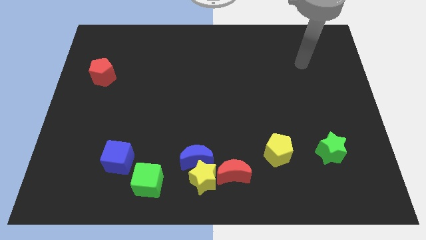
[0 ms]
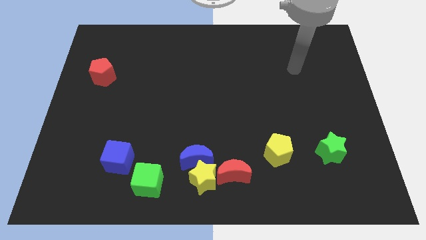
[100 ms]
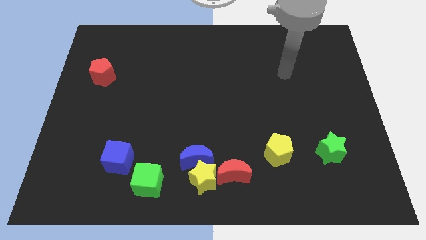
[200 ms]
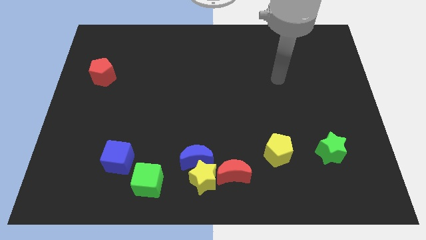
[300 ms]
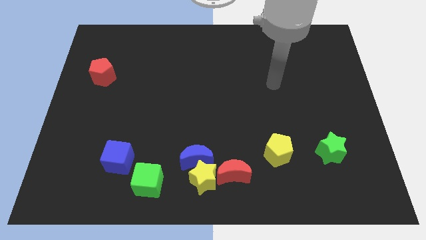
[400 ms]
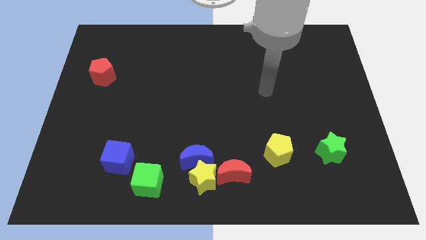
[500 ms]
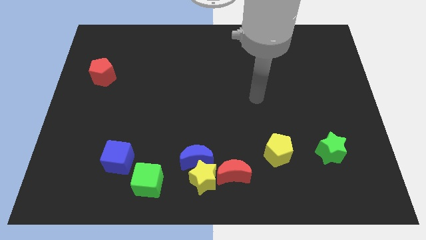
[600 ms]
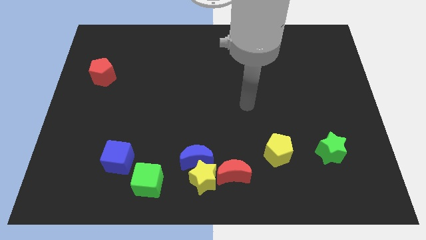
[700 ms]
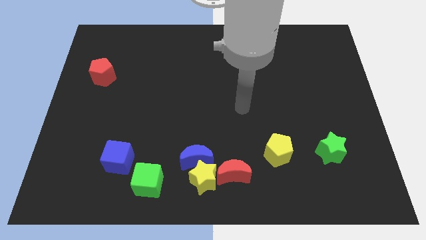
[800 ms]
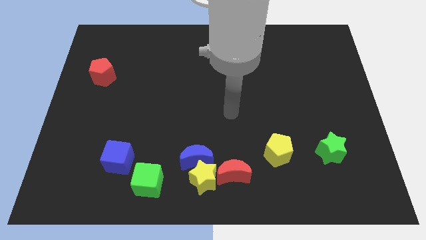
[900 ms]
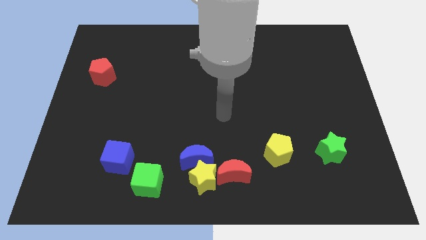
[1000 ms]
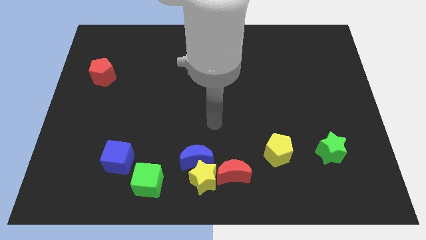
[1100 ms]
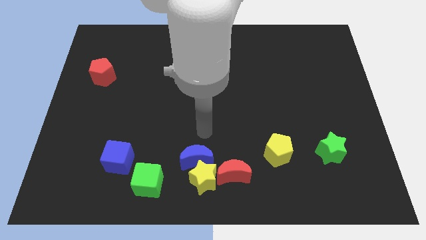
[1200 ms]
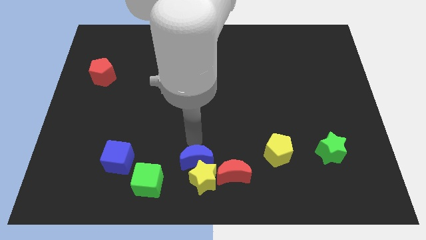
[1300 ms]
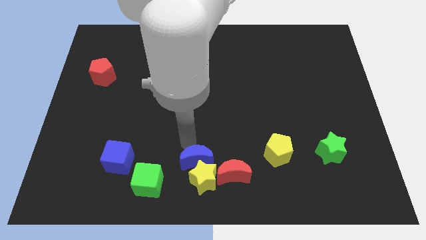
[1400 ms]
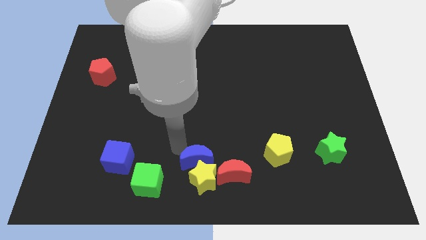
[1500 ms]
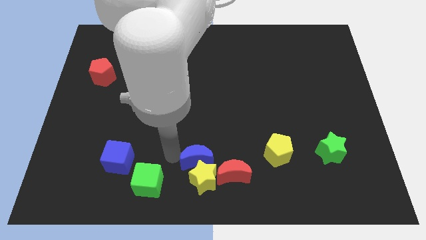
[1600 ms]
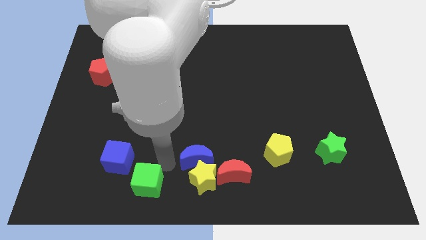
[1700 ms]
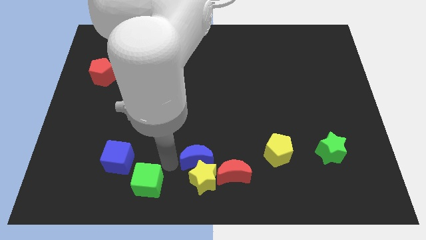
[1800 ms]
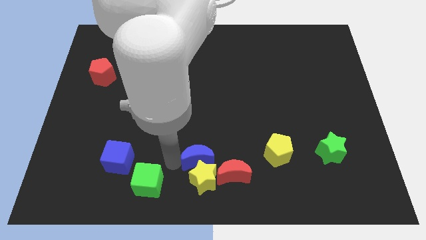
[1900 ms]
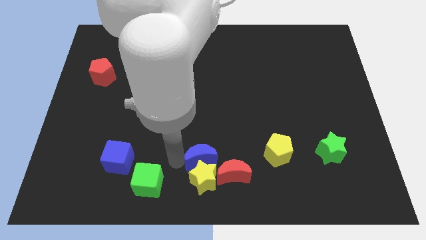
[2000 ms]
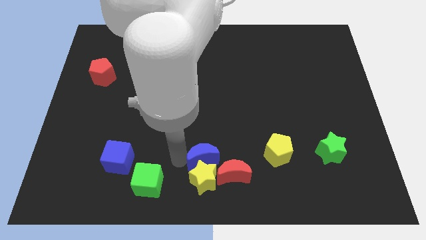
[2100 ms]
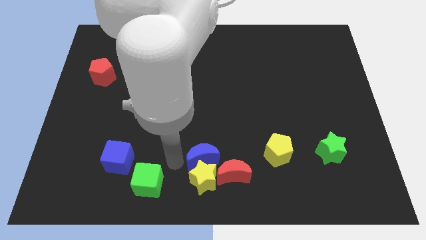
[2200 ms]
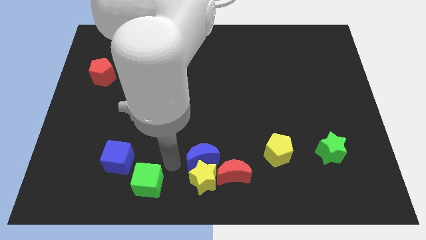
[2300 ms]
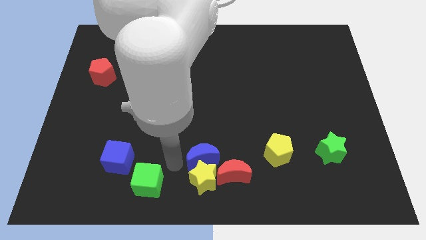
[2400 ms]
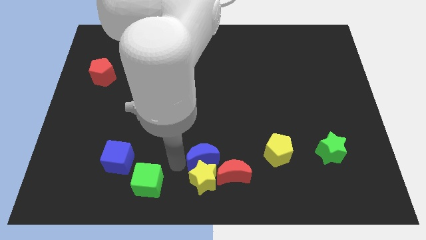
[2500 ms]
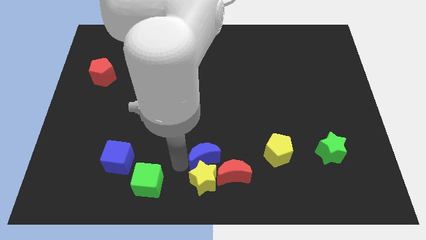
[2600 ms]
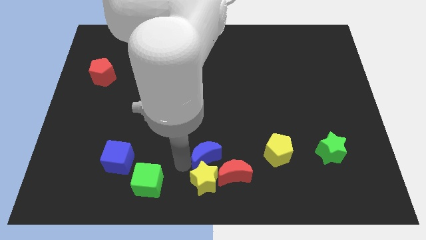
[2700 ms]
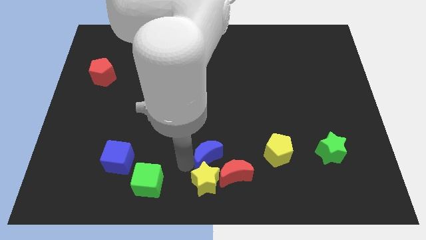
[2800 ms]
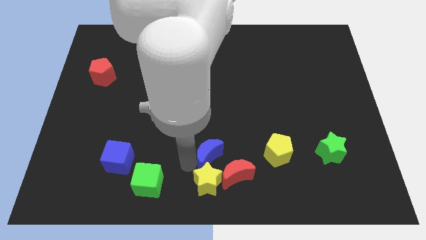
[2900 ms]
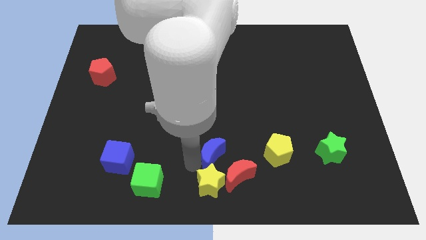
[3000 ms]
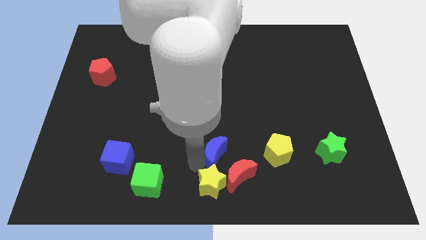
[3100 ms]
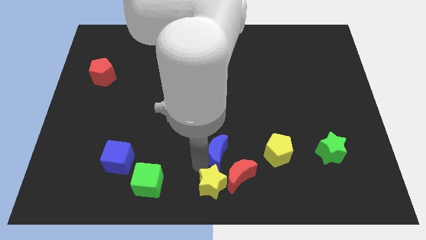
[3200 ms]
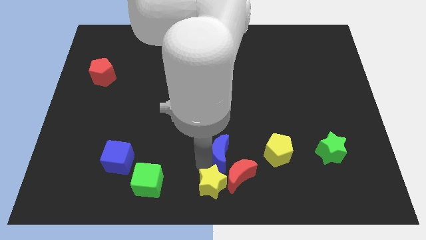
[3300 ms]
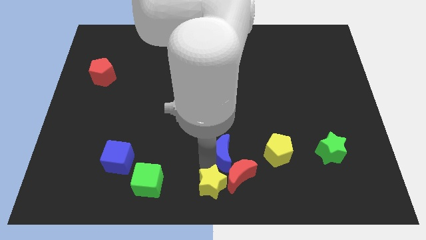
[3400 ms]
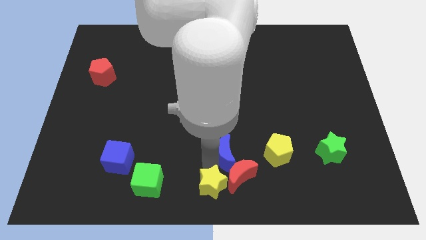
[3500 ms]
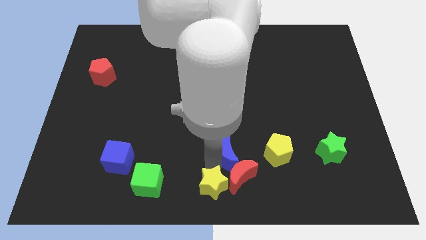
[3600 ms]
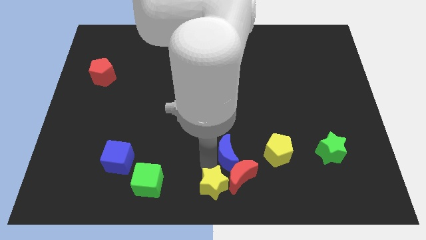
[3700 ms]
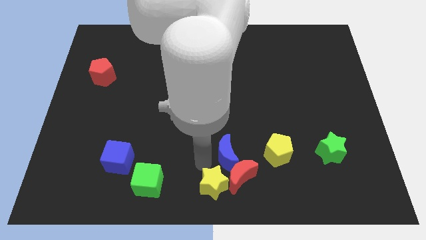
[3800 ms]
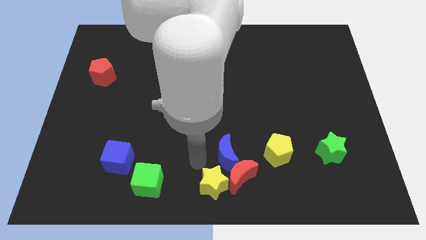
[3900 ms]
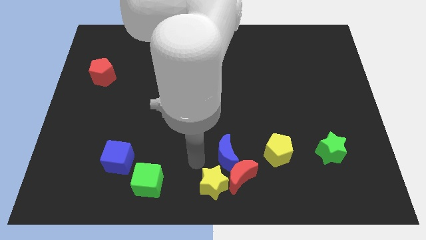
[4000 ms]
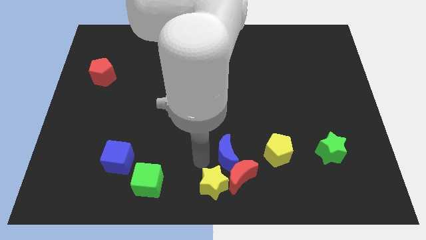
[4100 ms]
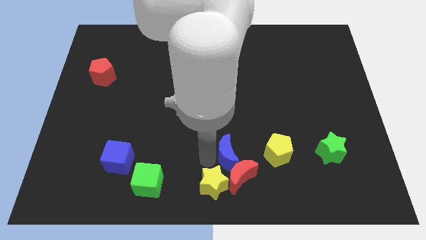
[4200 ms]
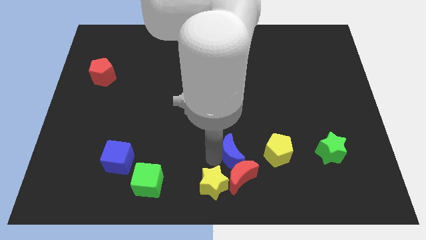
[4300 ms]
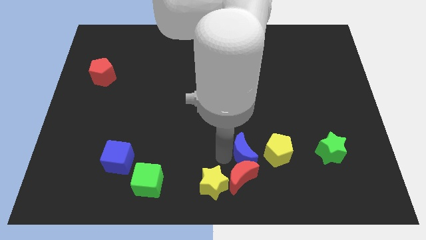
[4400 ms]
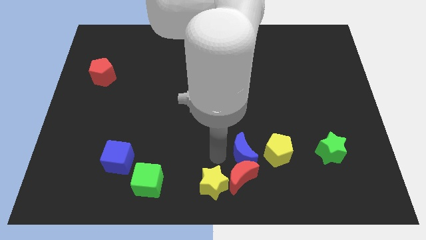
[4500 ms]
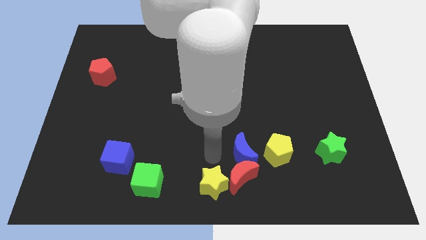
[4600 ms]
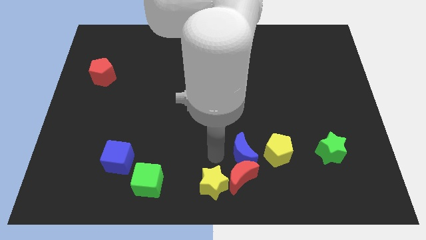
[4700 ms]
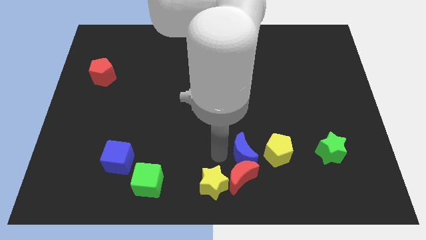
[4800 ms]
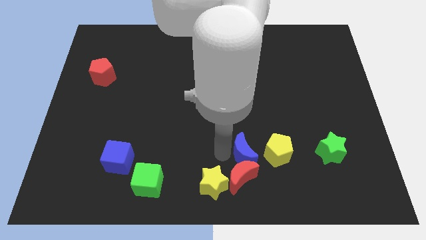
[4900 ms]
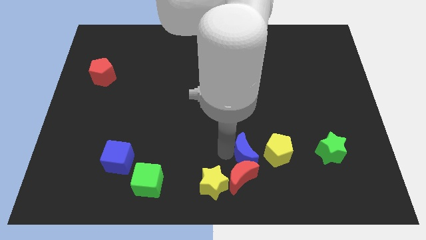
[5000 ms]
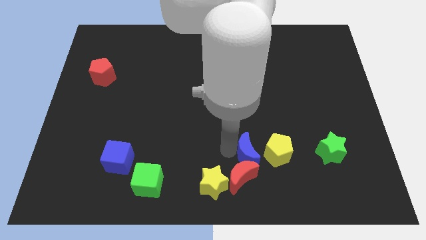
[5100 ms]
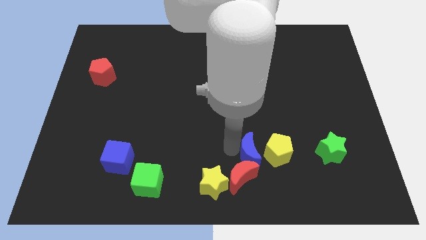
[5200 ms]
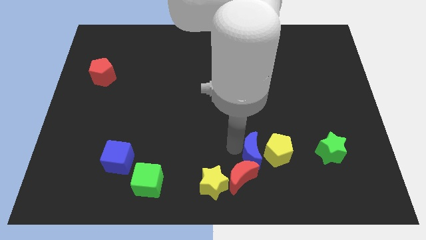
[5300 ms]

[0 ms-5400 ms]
put the blue moon to the yellow pentagon

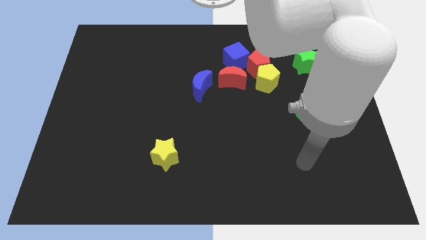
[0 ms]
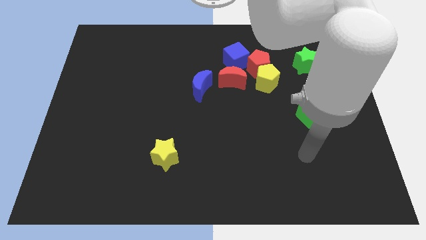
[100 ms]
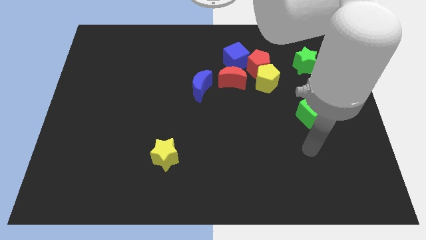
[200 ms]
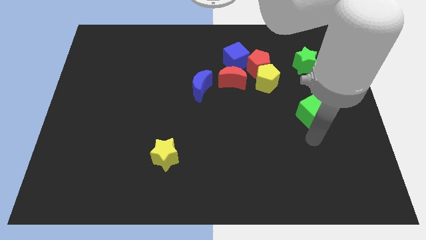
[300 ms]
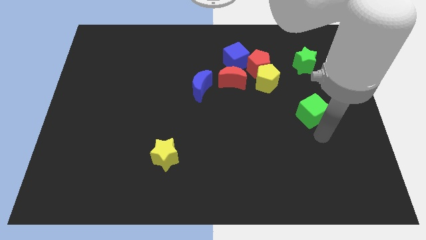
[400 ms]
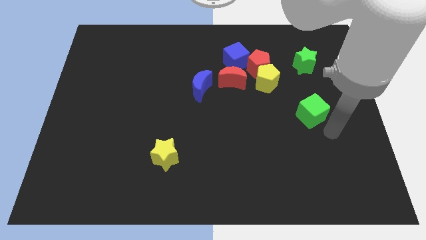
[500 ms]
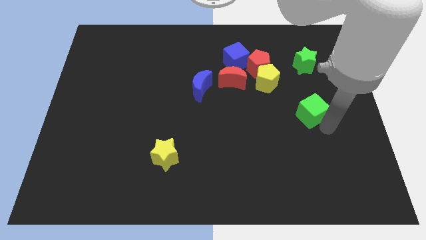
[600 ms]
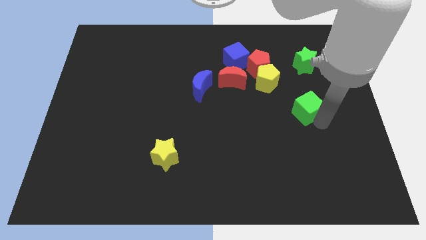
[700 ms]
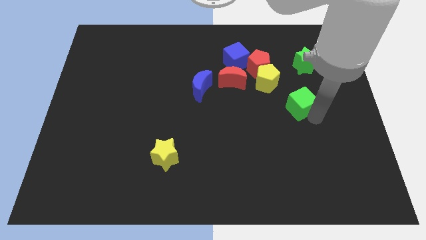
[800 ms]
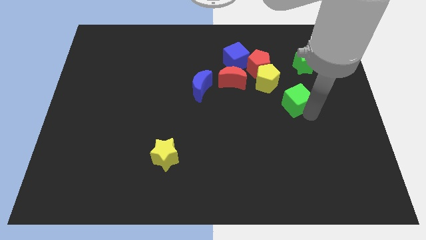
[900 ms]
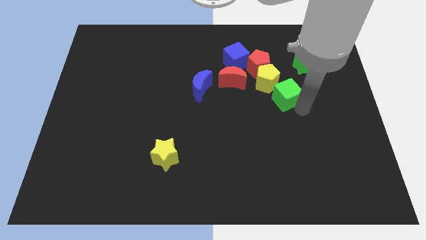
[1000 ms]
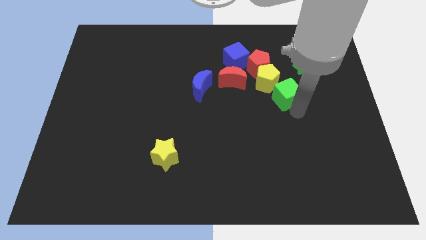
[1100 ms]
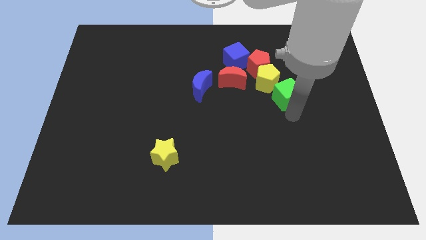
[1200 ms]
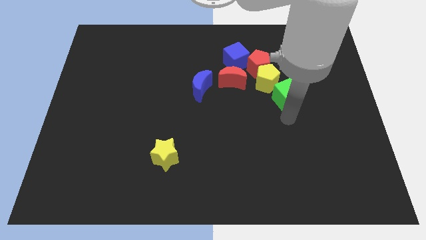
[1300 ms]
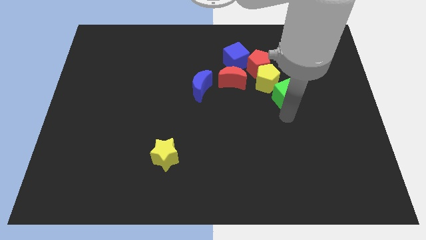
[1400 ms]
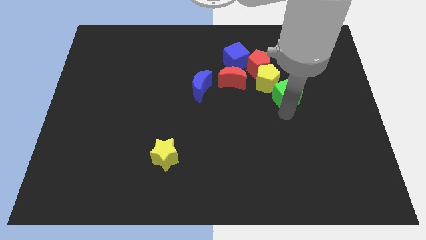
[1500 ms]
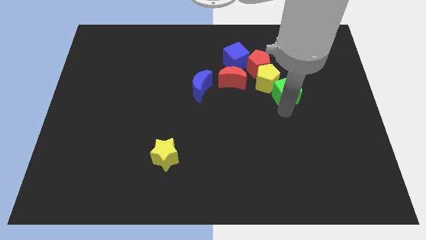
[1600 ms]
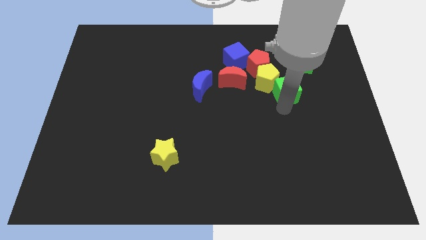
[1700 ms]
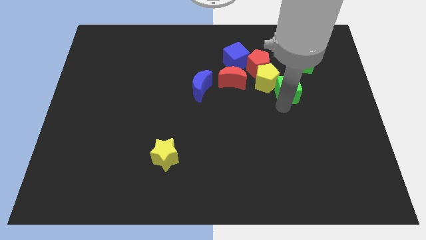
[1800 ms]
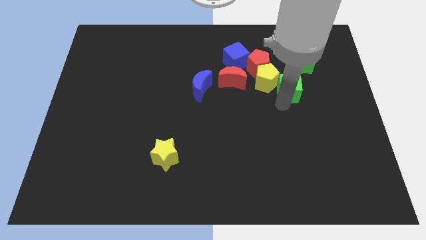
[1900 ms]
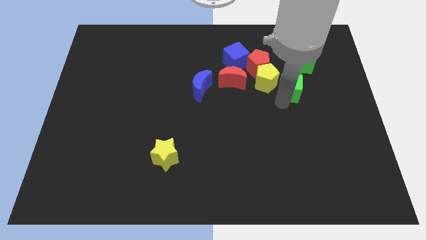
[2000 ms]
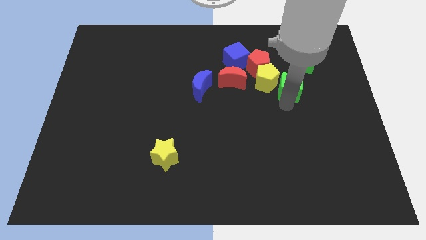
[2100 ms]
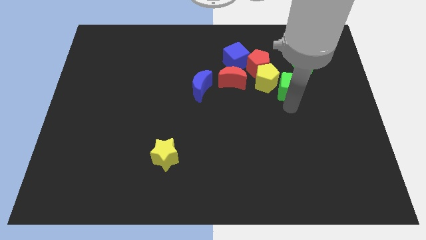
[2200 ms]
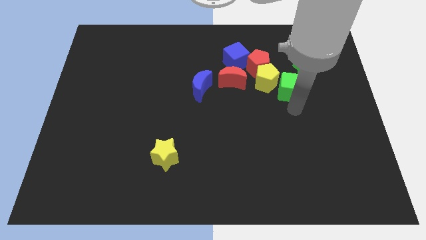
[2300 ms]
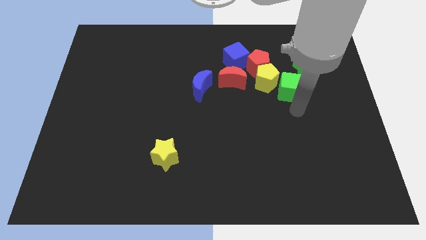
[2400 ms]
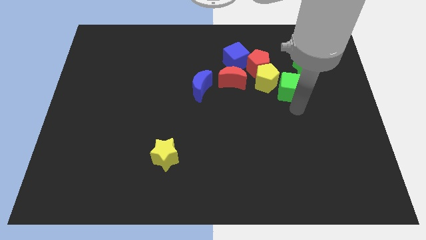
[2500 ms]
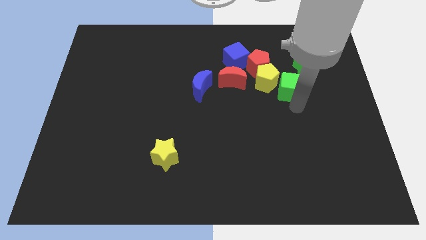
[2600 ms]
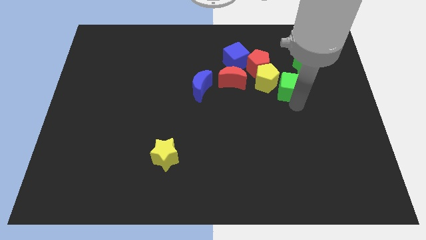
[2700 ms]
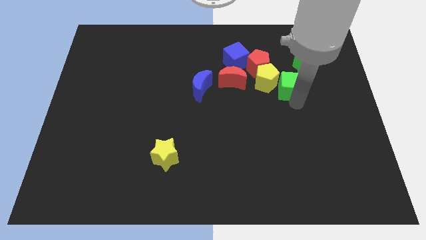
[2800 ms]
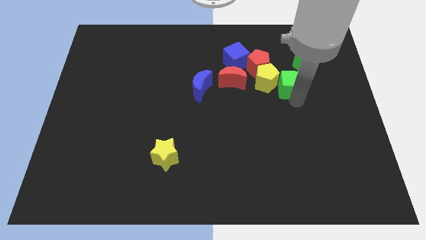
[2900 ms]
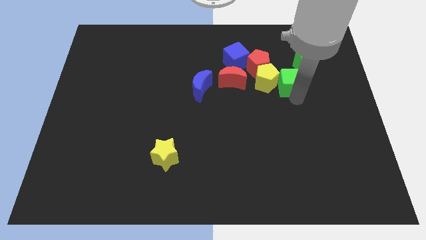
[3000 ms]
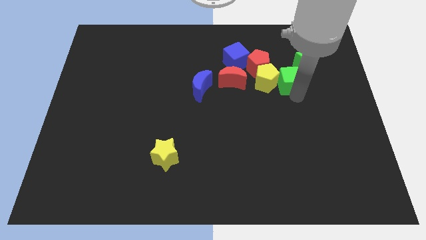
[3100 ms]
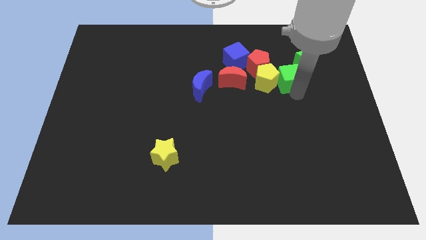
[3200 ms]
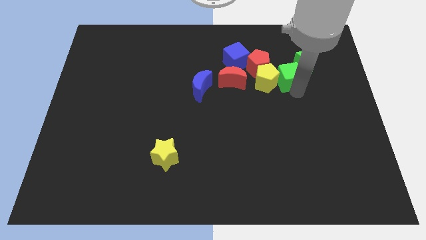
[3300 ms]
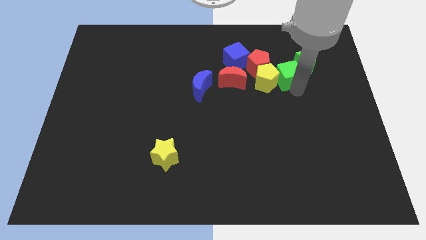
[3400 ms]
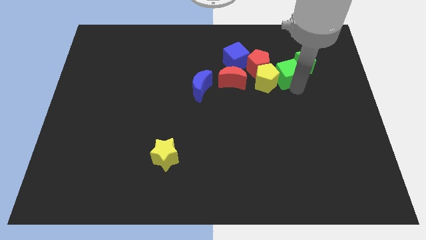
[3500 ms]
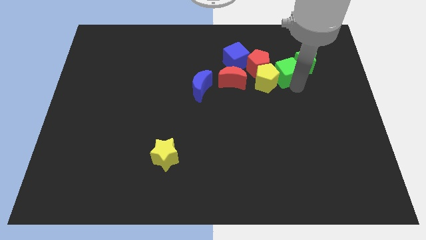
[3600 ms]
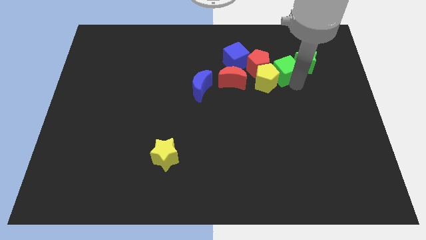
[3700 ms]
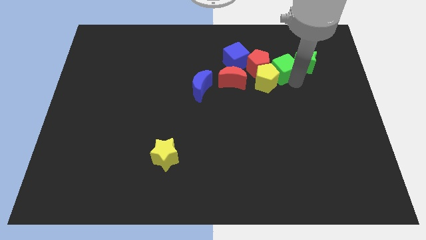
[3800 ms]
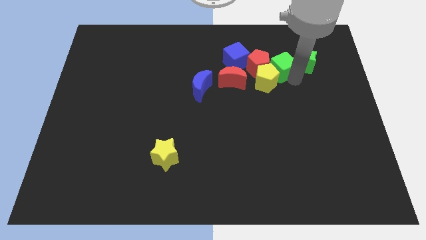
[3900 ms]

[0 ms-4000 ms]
slide the green cube towards the red pentagon
